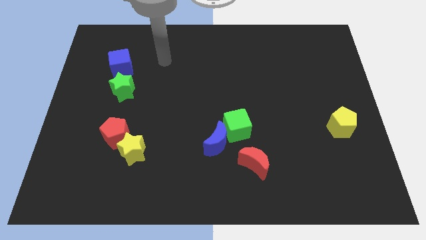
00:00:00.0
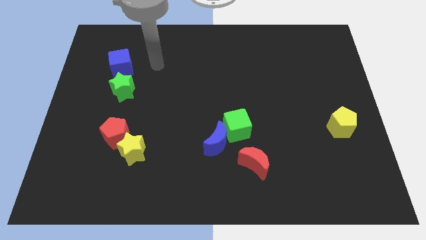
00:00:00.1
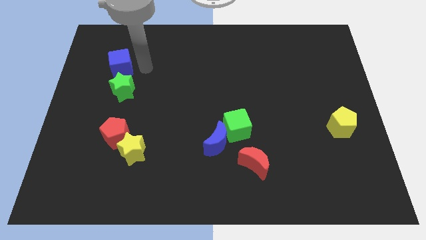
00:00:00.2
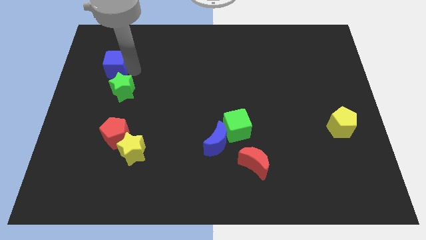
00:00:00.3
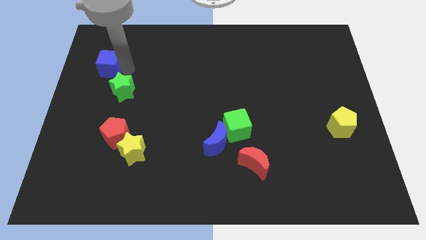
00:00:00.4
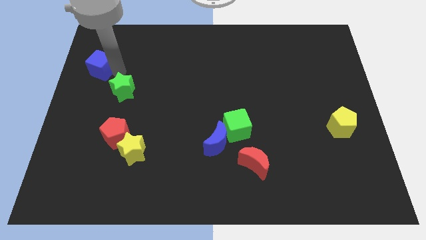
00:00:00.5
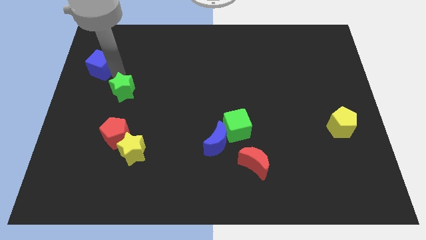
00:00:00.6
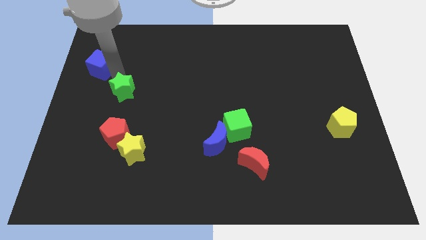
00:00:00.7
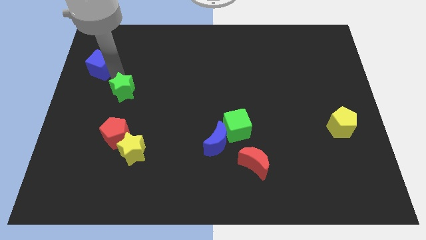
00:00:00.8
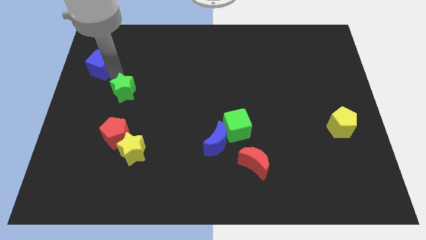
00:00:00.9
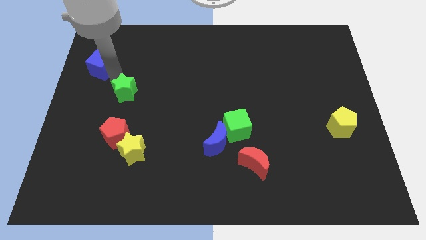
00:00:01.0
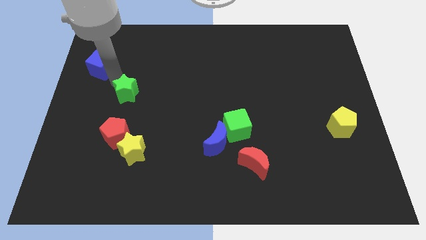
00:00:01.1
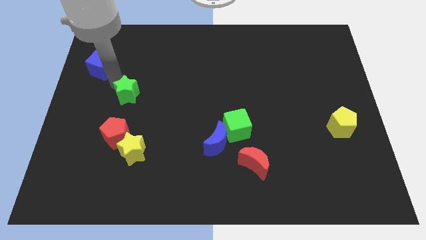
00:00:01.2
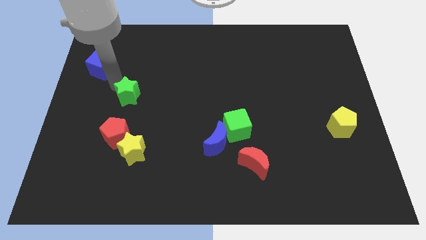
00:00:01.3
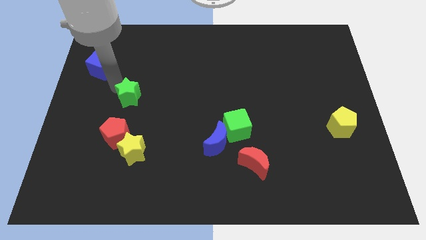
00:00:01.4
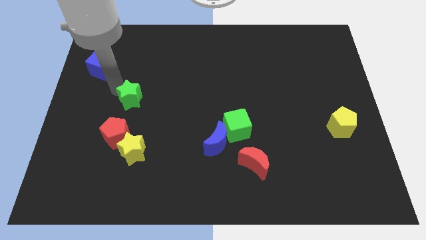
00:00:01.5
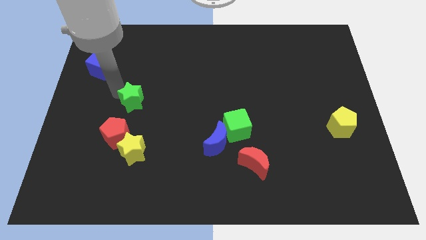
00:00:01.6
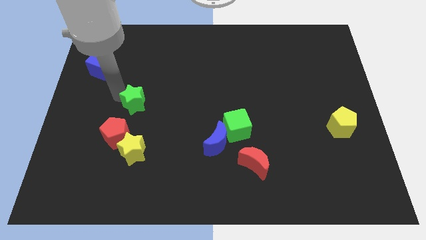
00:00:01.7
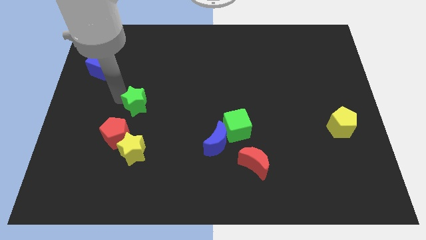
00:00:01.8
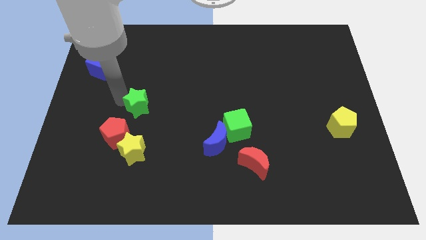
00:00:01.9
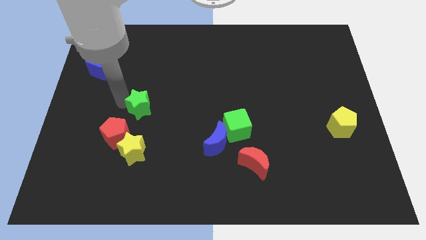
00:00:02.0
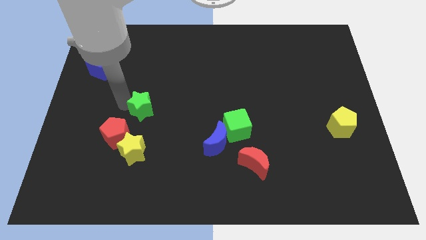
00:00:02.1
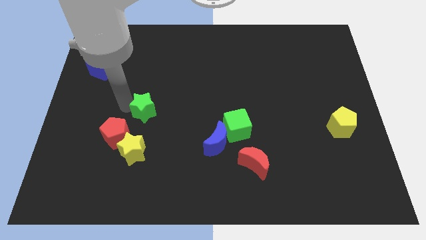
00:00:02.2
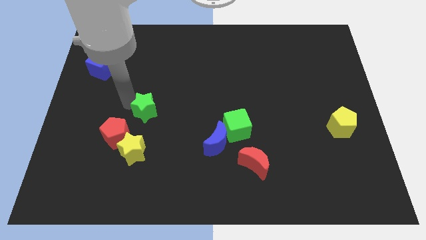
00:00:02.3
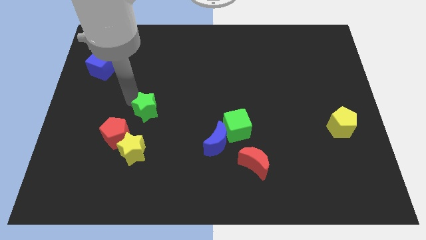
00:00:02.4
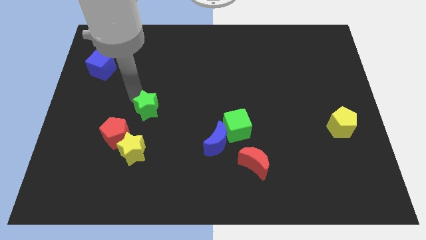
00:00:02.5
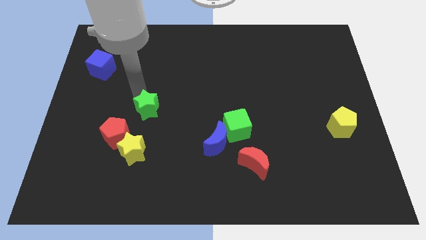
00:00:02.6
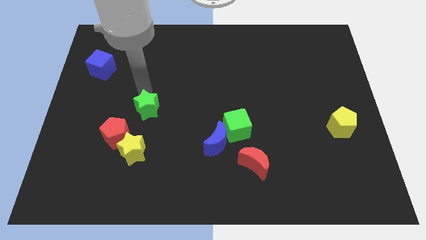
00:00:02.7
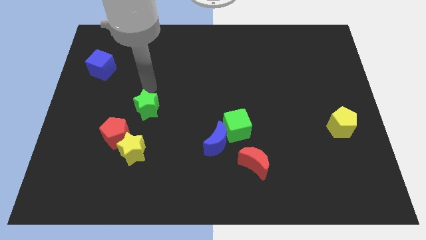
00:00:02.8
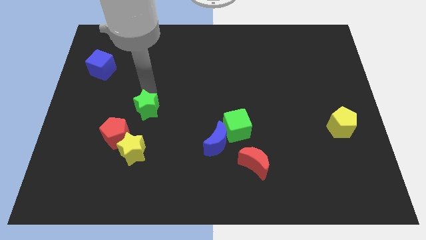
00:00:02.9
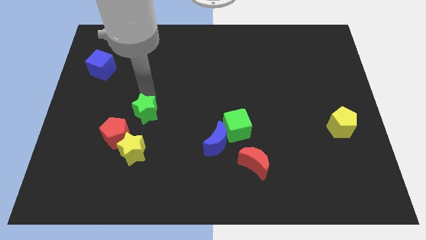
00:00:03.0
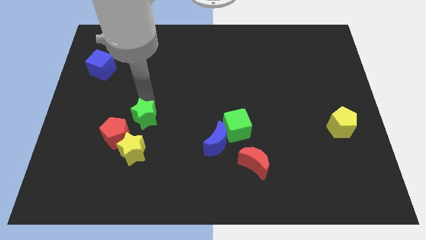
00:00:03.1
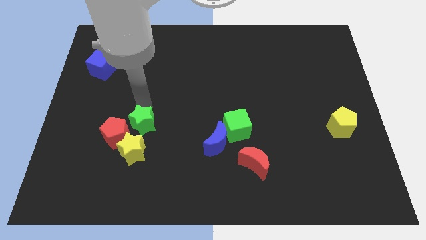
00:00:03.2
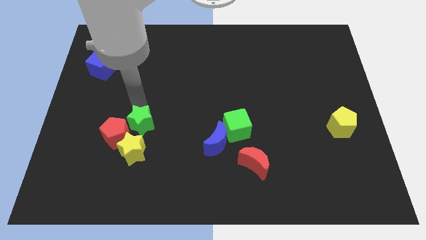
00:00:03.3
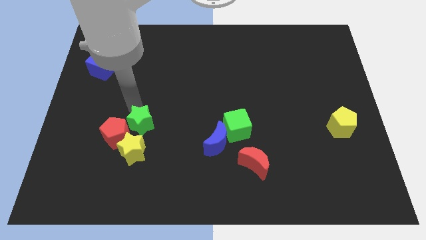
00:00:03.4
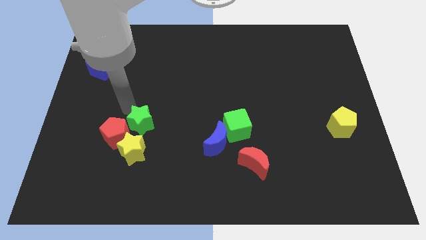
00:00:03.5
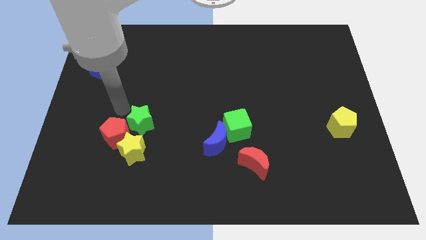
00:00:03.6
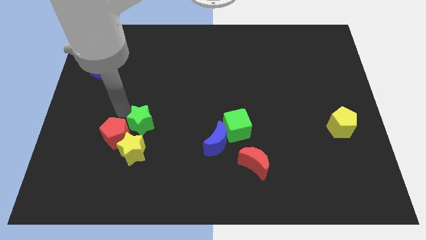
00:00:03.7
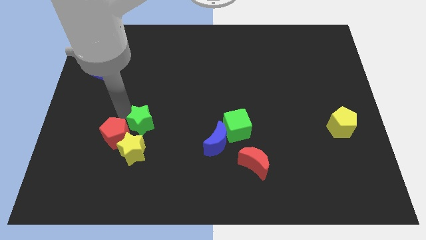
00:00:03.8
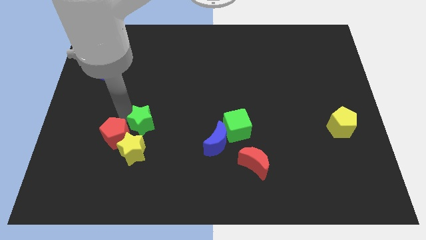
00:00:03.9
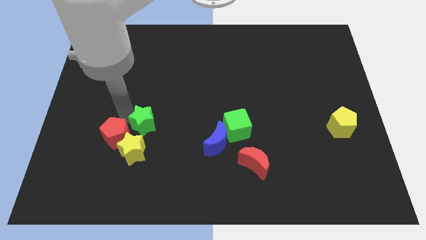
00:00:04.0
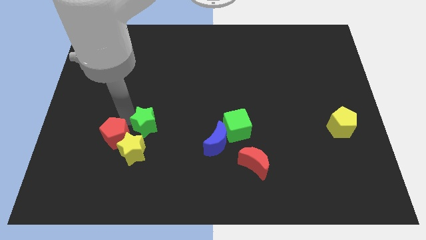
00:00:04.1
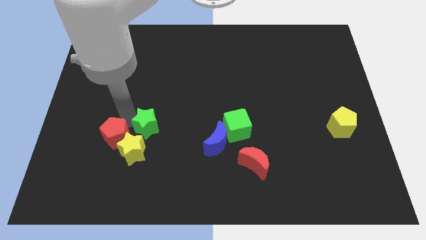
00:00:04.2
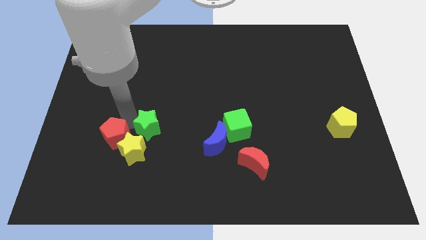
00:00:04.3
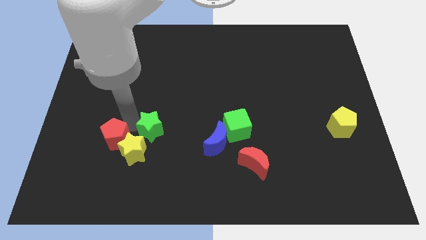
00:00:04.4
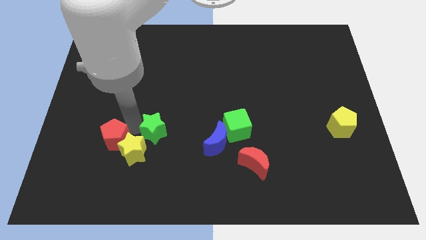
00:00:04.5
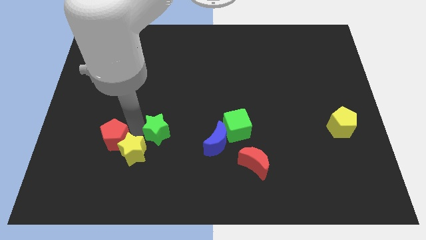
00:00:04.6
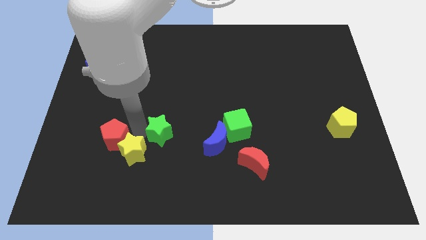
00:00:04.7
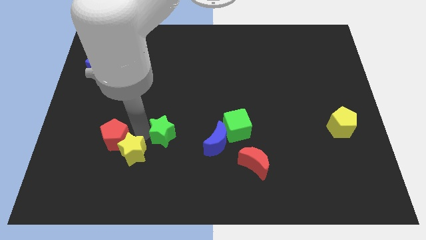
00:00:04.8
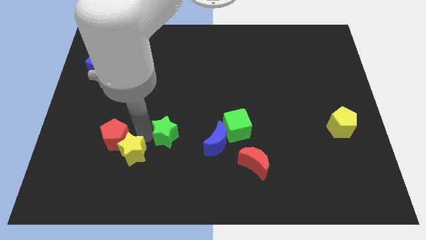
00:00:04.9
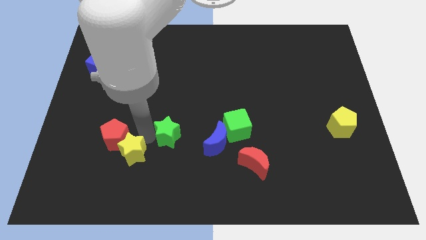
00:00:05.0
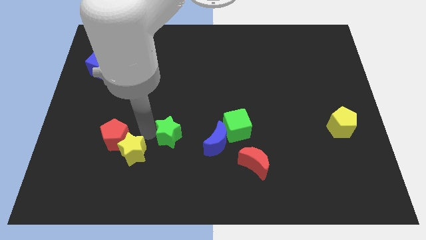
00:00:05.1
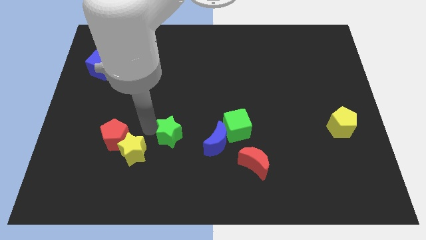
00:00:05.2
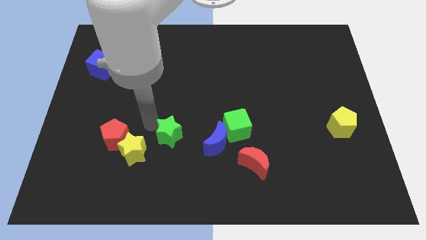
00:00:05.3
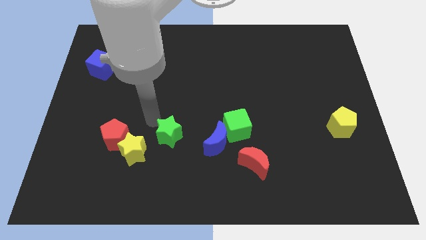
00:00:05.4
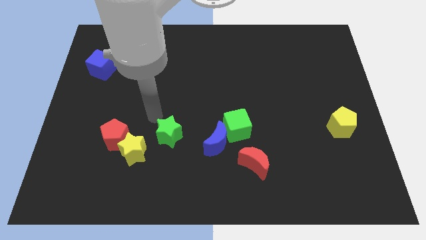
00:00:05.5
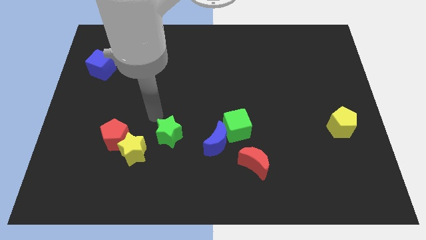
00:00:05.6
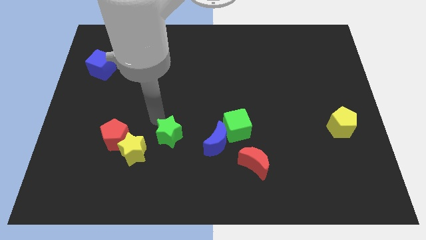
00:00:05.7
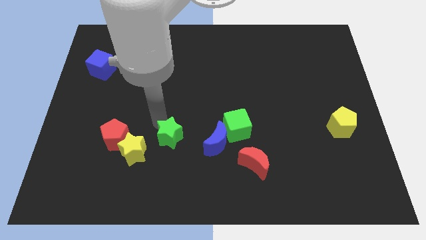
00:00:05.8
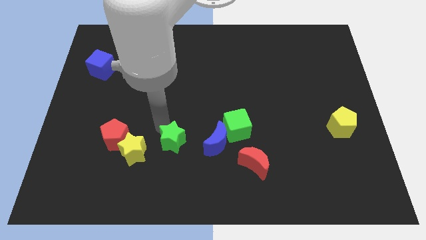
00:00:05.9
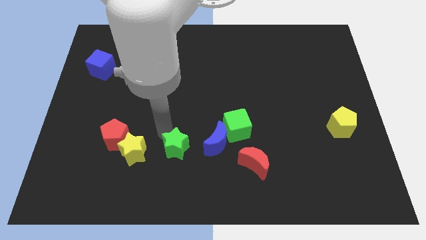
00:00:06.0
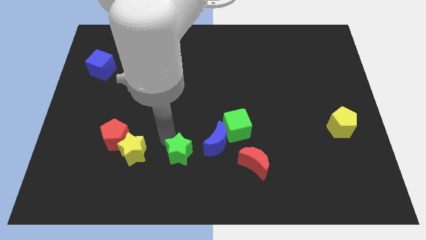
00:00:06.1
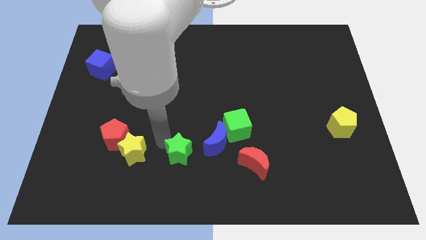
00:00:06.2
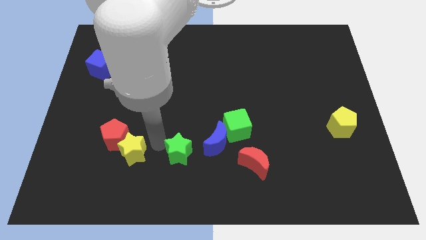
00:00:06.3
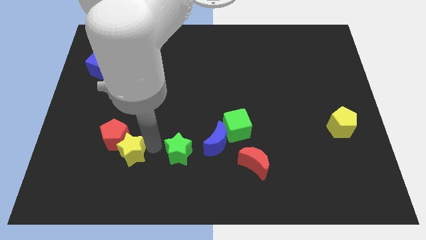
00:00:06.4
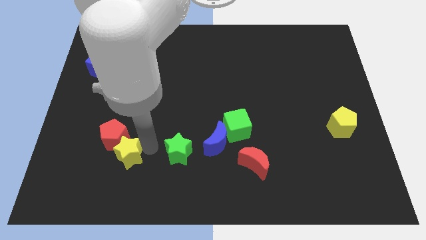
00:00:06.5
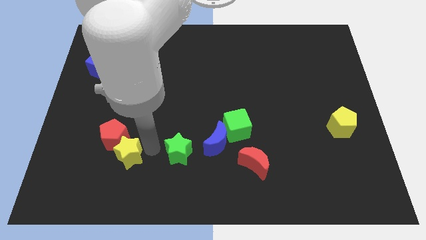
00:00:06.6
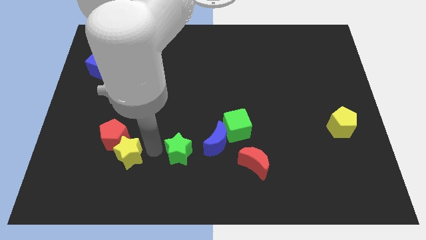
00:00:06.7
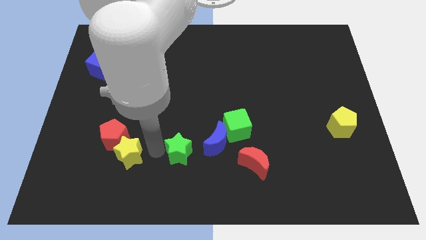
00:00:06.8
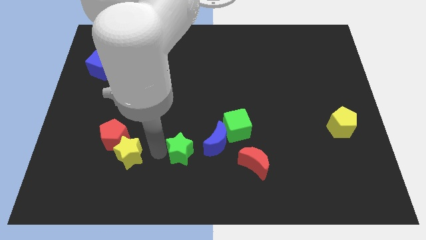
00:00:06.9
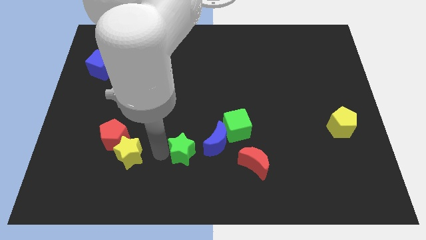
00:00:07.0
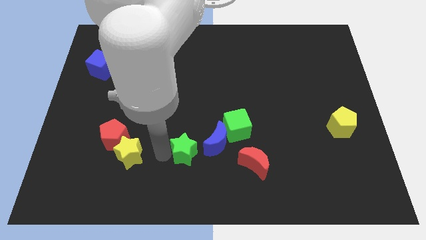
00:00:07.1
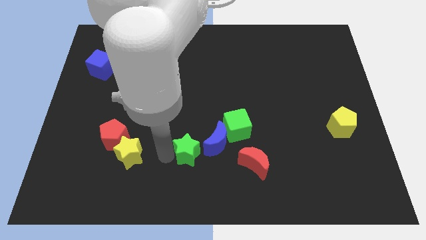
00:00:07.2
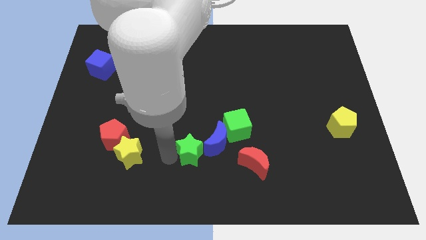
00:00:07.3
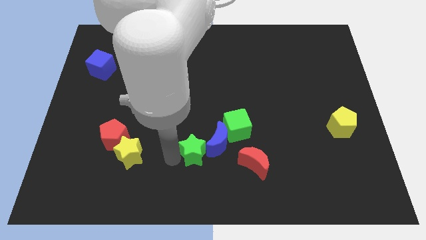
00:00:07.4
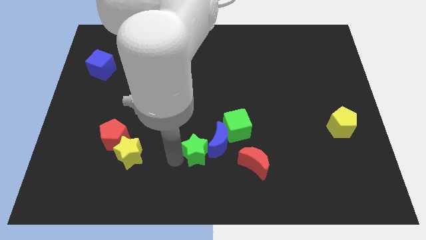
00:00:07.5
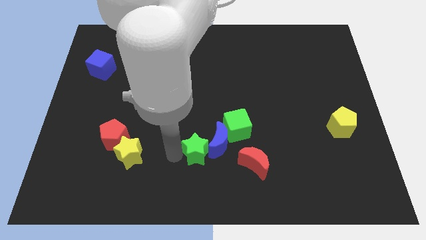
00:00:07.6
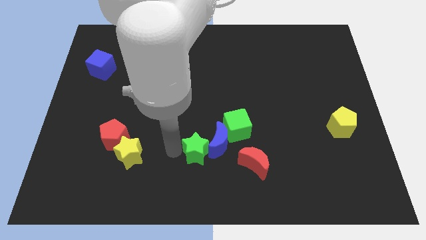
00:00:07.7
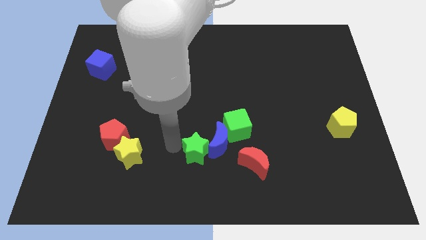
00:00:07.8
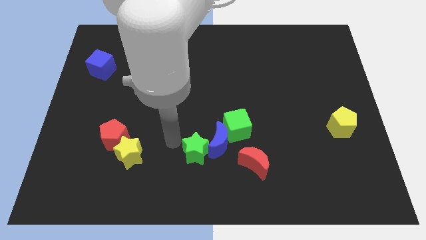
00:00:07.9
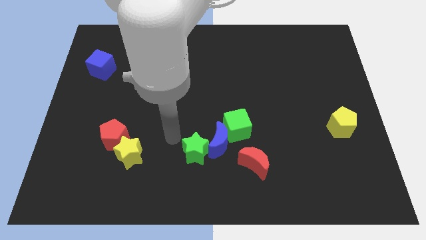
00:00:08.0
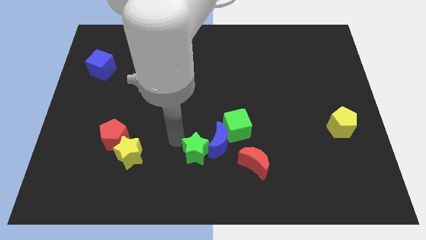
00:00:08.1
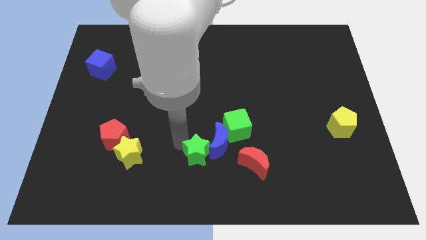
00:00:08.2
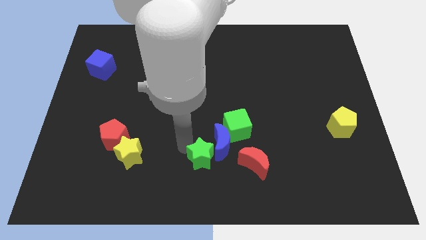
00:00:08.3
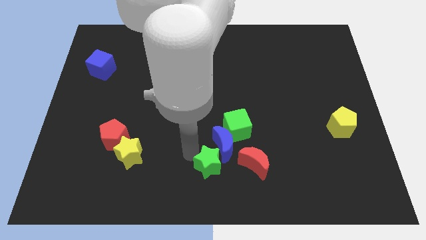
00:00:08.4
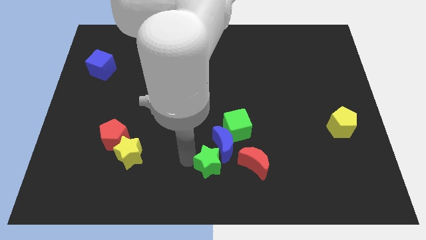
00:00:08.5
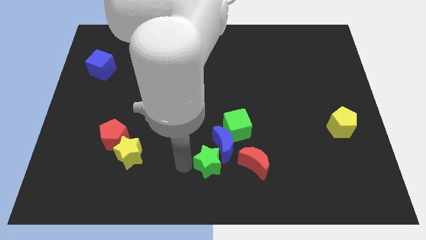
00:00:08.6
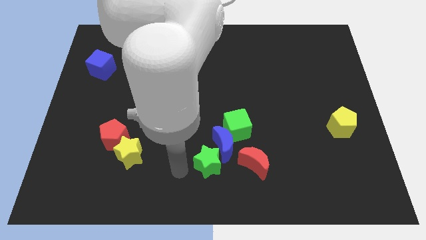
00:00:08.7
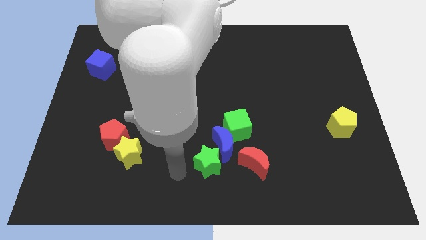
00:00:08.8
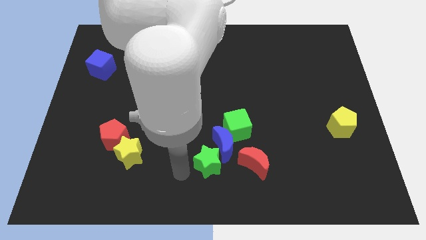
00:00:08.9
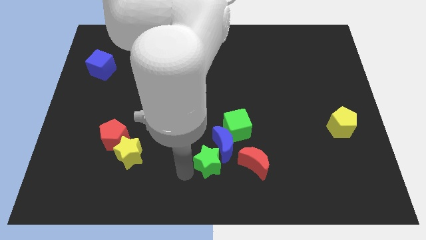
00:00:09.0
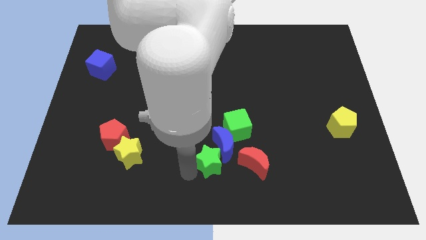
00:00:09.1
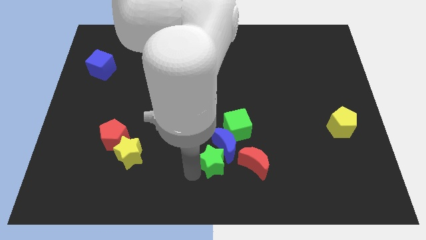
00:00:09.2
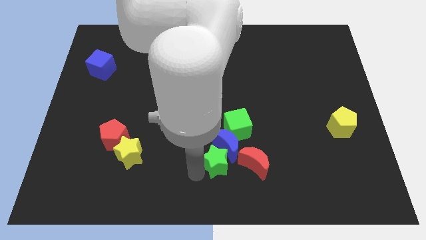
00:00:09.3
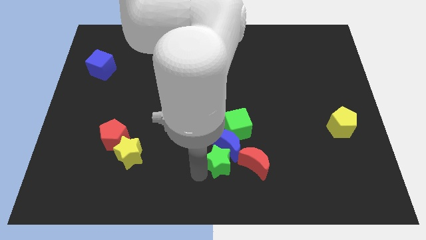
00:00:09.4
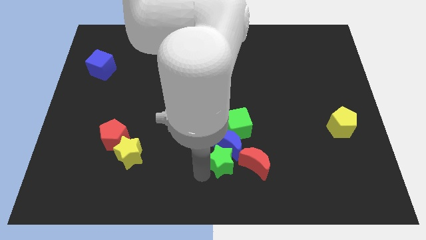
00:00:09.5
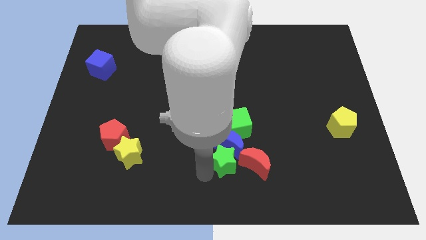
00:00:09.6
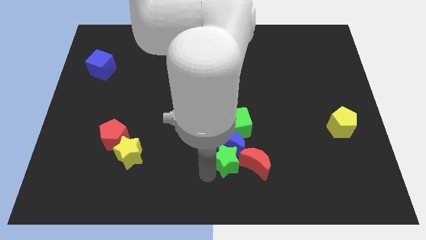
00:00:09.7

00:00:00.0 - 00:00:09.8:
put the green star close to the red moon
